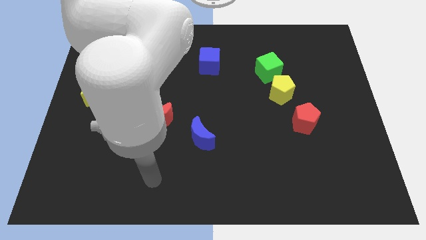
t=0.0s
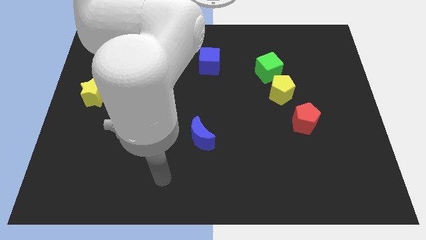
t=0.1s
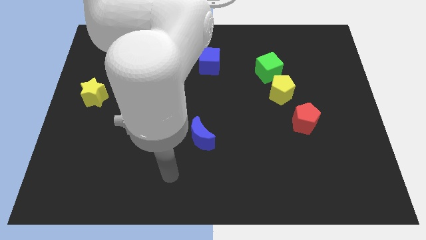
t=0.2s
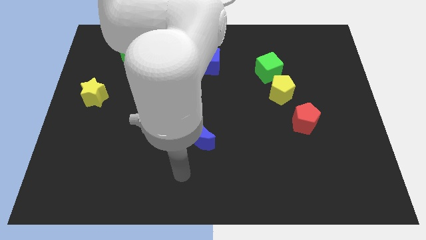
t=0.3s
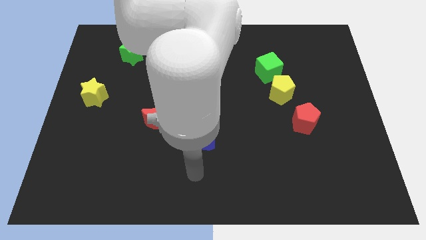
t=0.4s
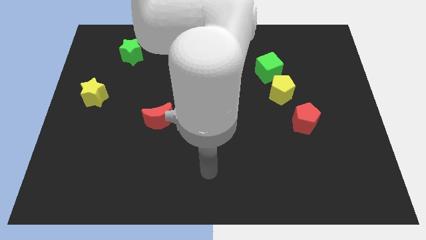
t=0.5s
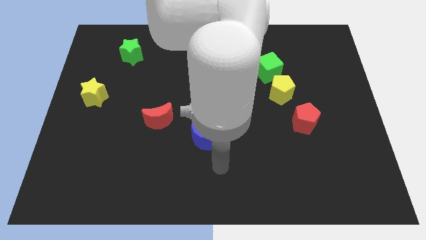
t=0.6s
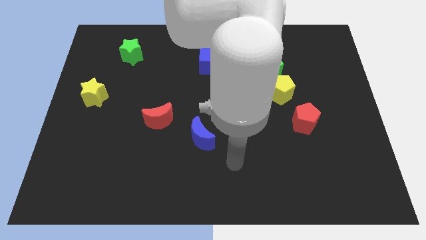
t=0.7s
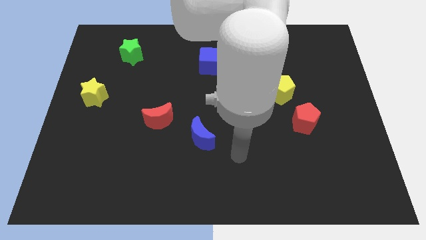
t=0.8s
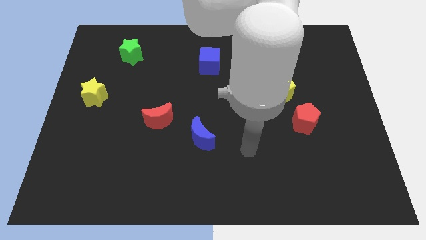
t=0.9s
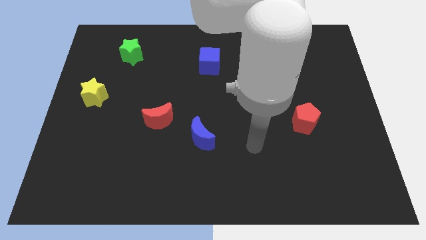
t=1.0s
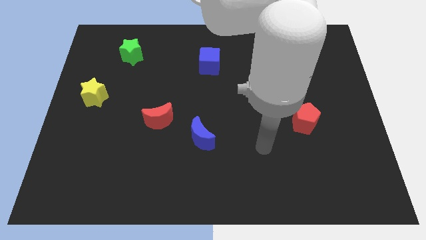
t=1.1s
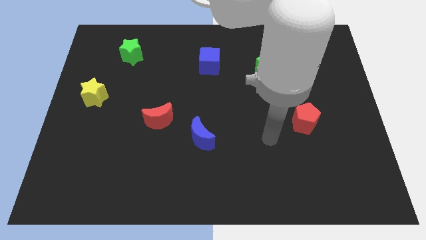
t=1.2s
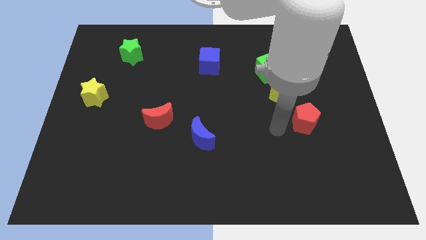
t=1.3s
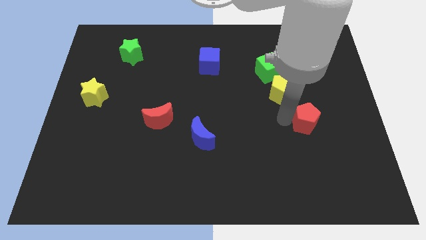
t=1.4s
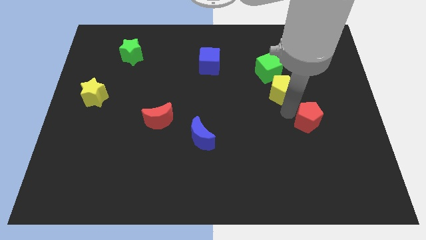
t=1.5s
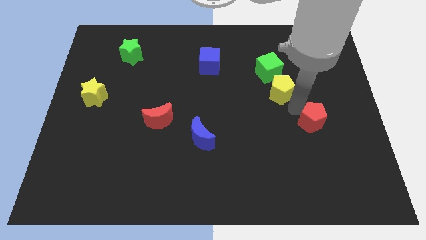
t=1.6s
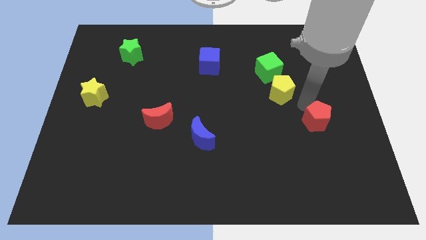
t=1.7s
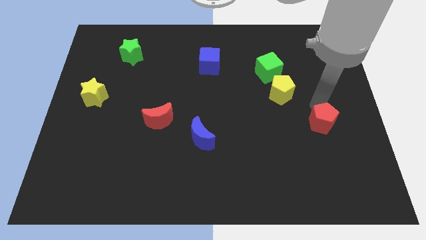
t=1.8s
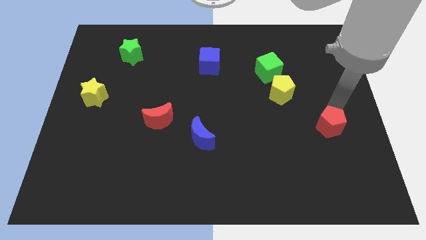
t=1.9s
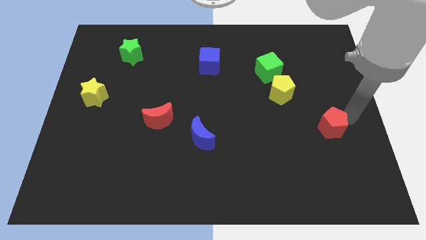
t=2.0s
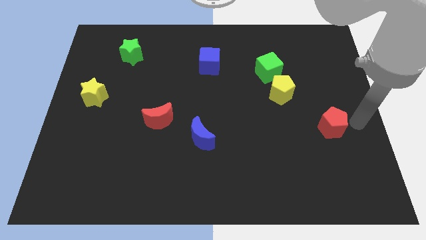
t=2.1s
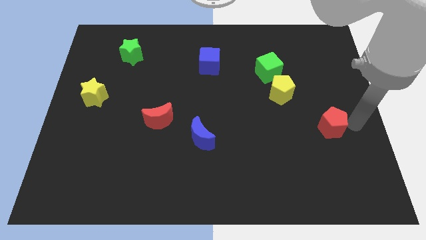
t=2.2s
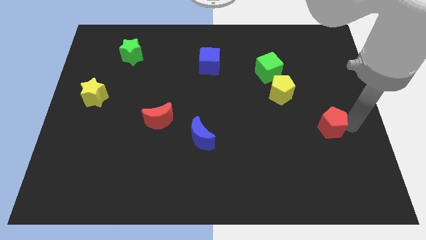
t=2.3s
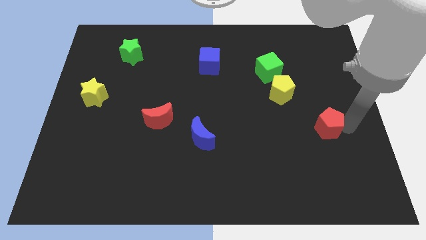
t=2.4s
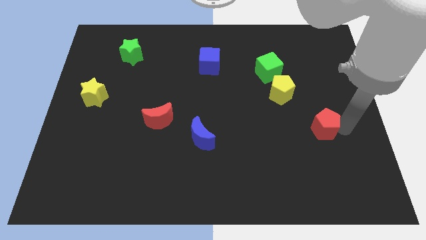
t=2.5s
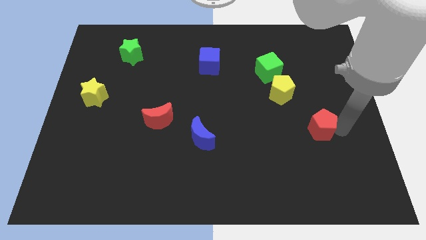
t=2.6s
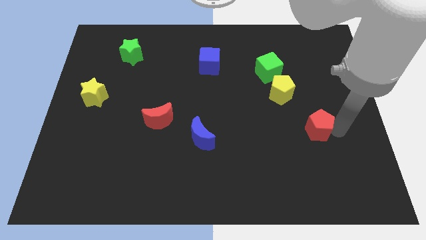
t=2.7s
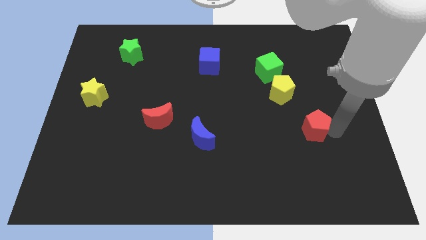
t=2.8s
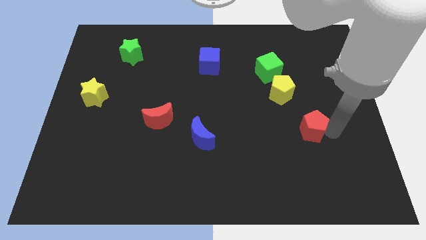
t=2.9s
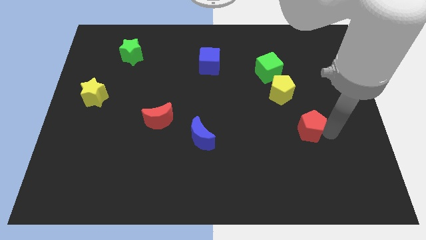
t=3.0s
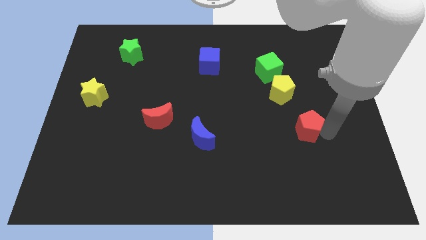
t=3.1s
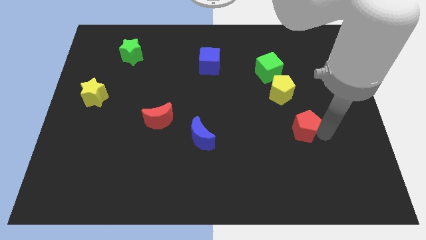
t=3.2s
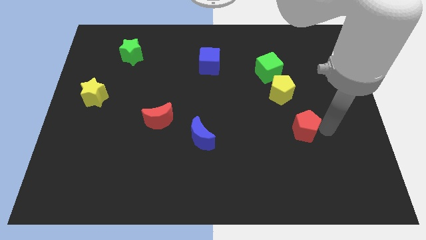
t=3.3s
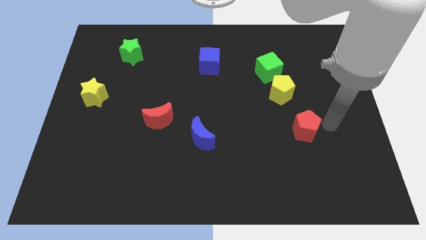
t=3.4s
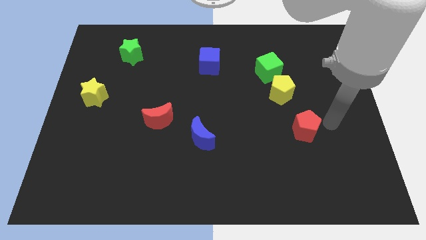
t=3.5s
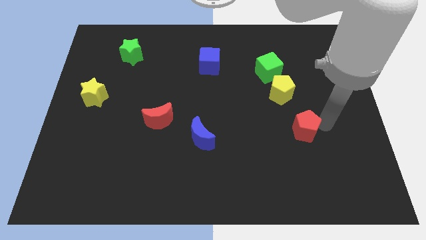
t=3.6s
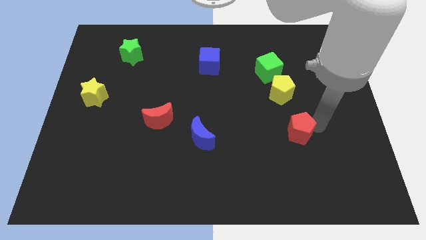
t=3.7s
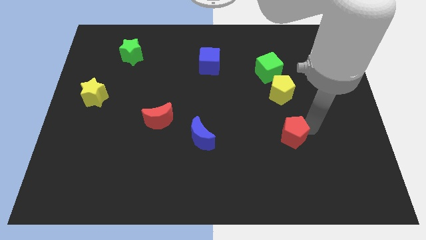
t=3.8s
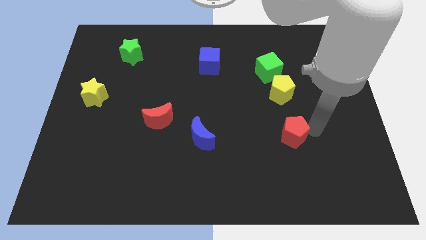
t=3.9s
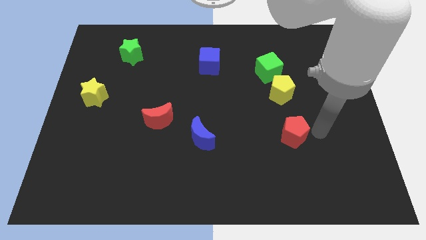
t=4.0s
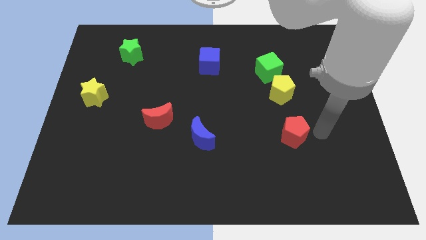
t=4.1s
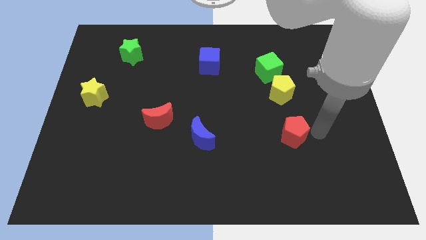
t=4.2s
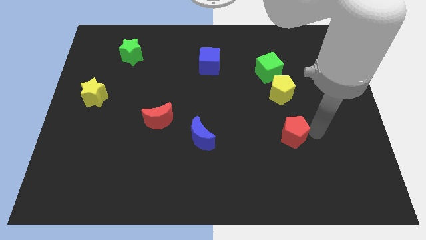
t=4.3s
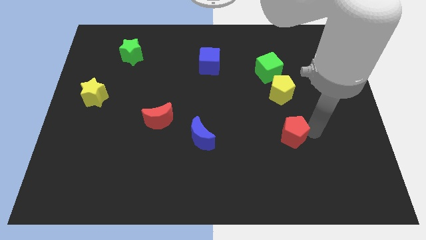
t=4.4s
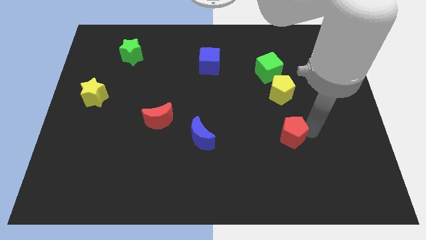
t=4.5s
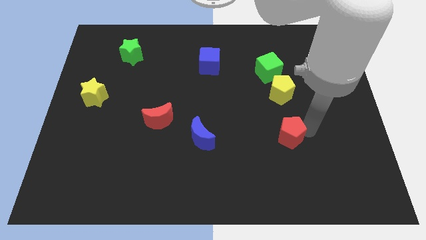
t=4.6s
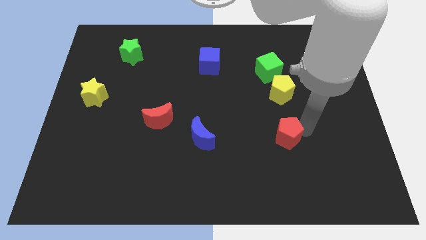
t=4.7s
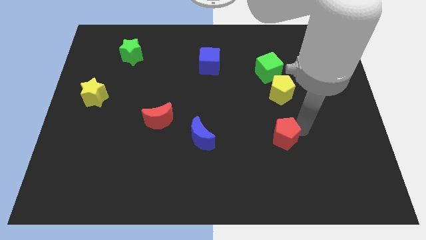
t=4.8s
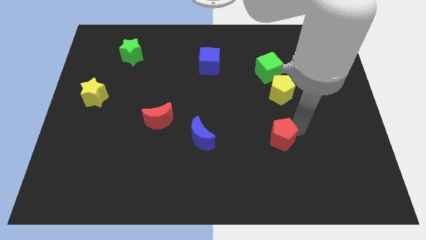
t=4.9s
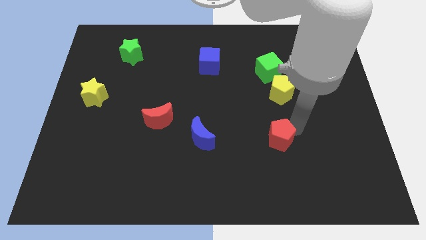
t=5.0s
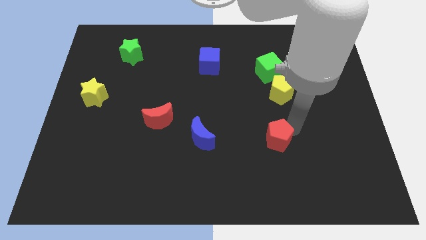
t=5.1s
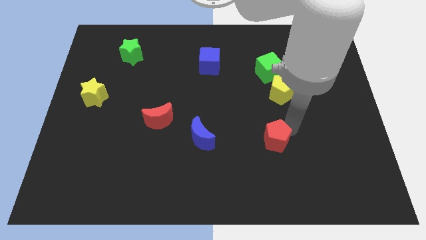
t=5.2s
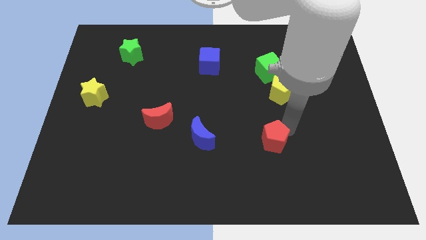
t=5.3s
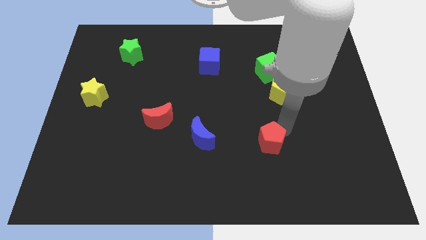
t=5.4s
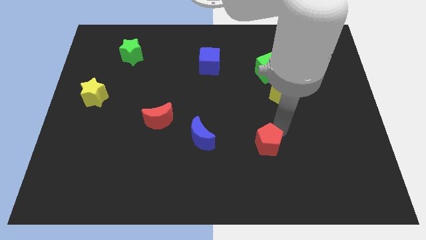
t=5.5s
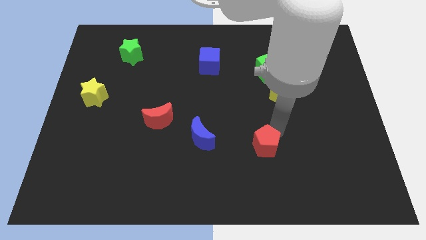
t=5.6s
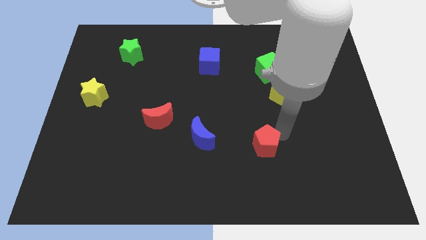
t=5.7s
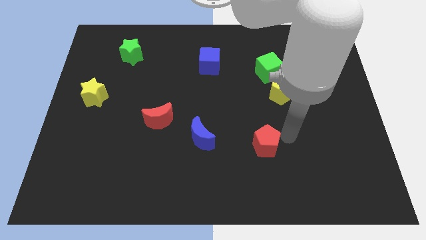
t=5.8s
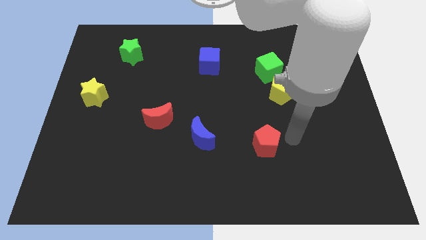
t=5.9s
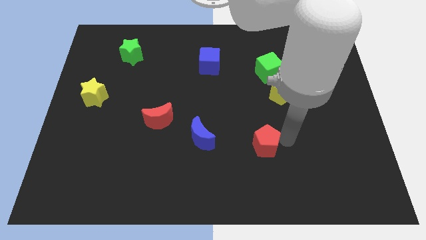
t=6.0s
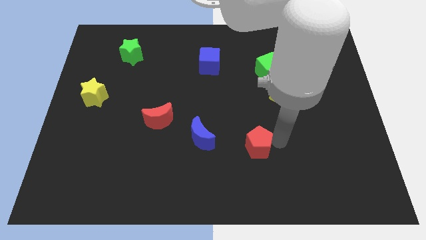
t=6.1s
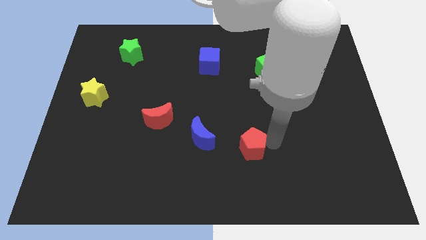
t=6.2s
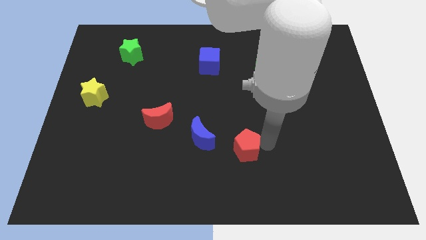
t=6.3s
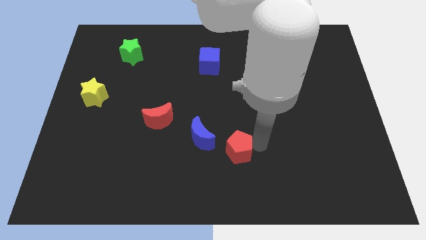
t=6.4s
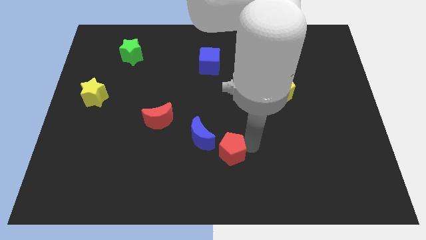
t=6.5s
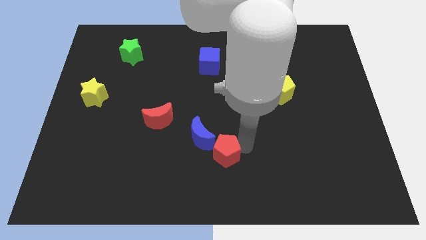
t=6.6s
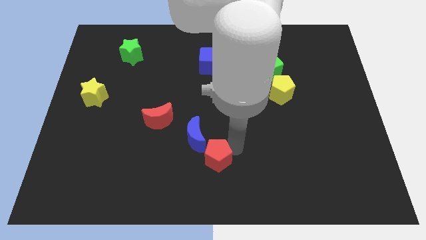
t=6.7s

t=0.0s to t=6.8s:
put the red pentagon to the bottom side of the blue moon
